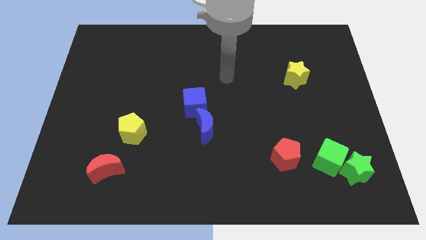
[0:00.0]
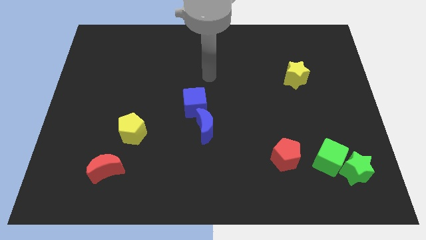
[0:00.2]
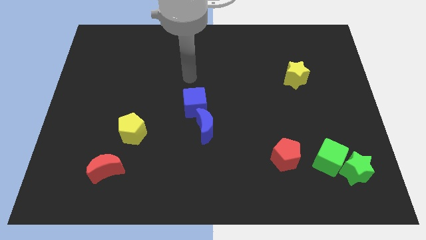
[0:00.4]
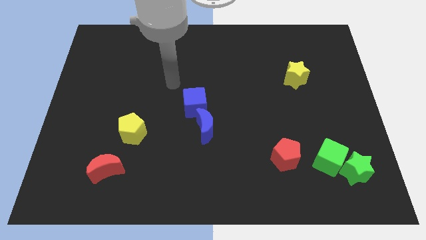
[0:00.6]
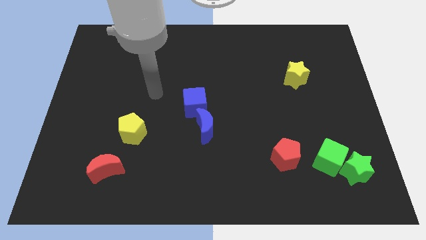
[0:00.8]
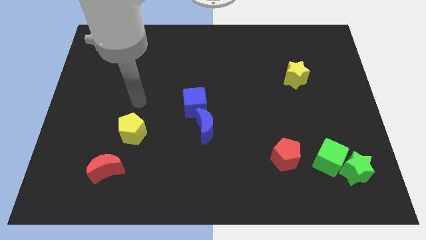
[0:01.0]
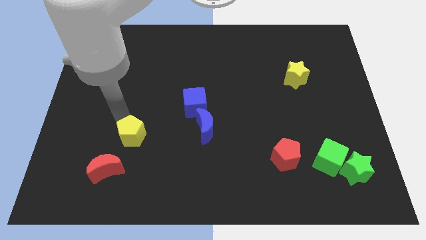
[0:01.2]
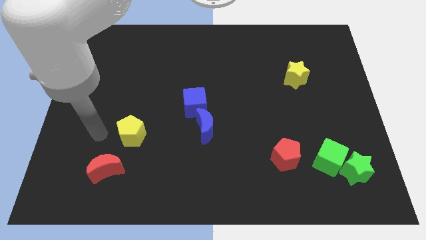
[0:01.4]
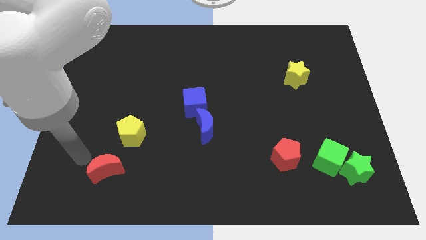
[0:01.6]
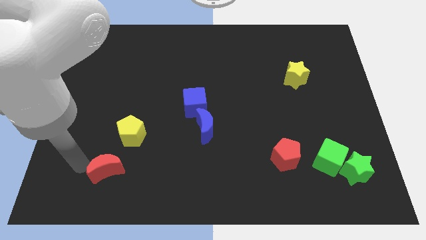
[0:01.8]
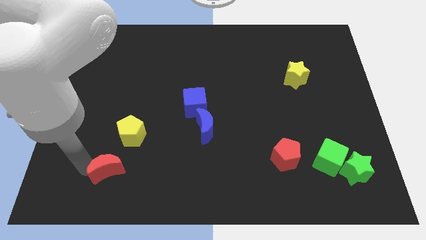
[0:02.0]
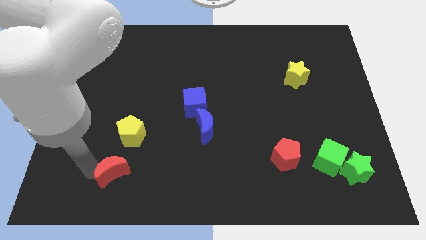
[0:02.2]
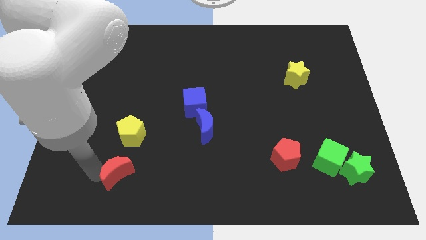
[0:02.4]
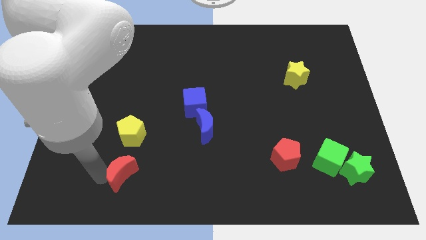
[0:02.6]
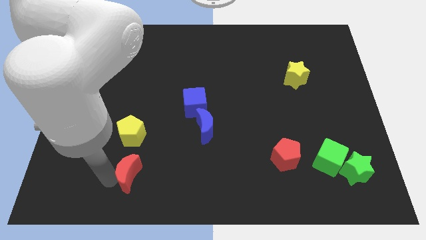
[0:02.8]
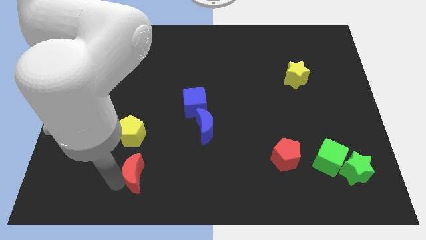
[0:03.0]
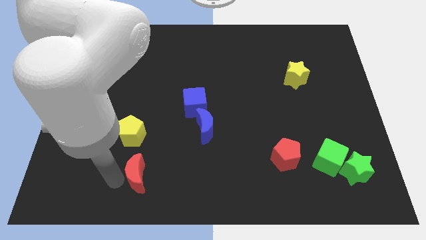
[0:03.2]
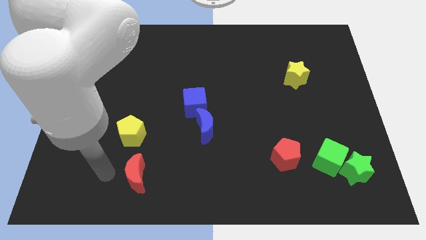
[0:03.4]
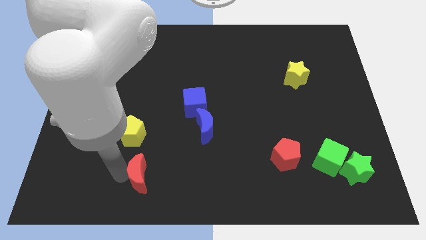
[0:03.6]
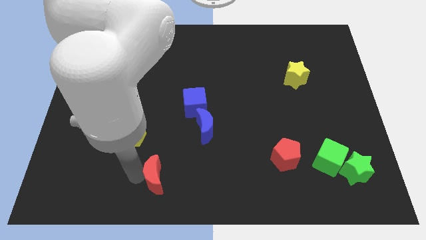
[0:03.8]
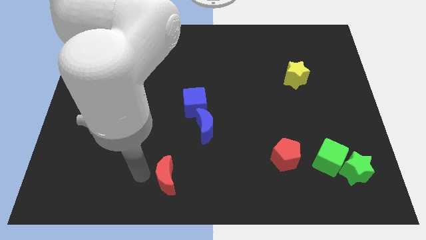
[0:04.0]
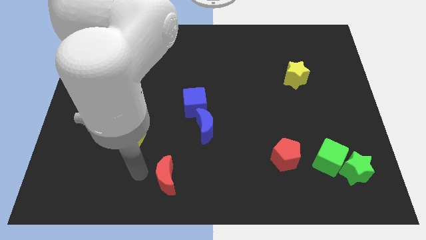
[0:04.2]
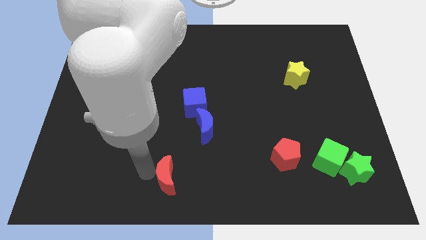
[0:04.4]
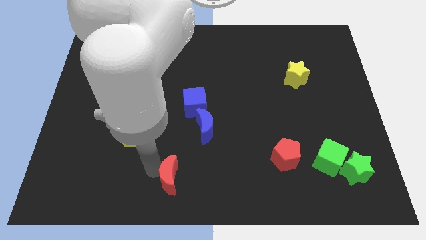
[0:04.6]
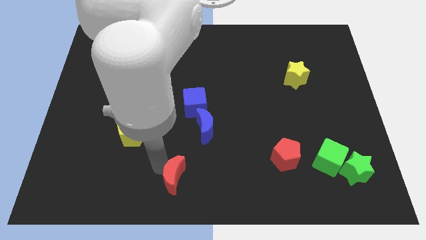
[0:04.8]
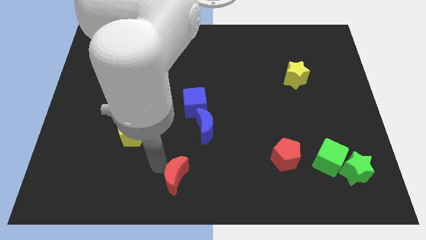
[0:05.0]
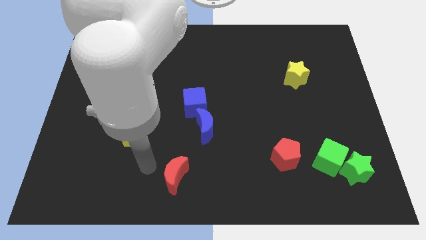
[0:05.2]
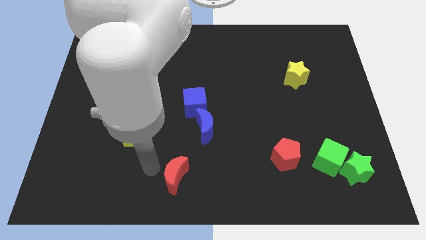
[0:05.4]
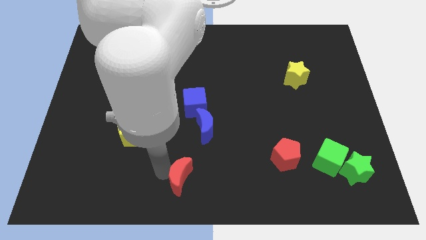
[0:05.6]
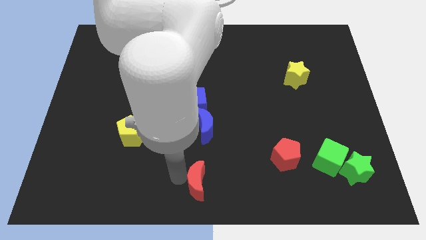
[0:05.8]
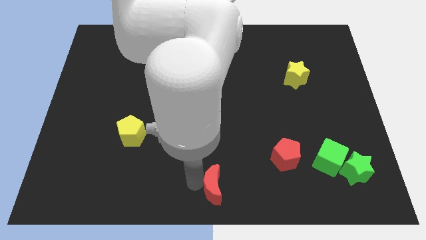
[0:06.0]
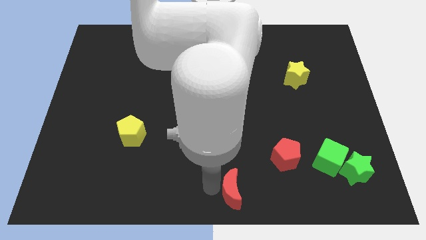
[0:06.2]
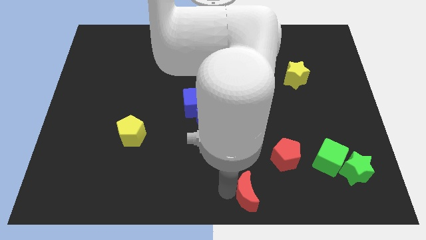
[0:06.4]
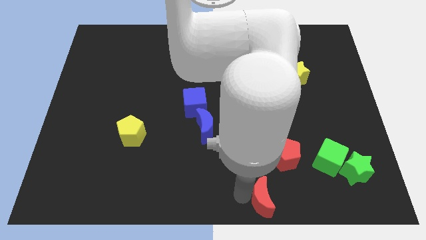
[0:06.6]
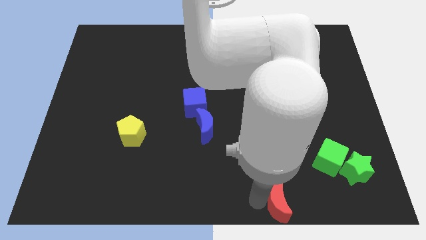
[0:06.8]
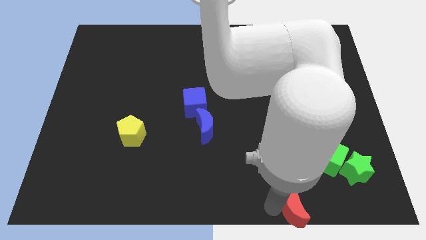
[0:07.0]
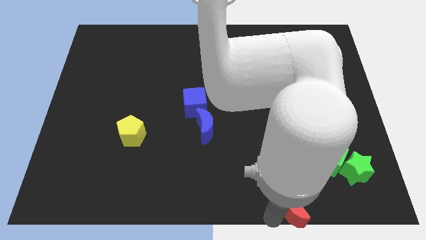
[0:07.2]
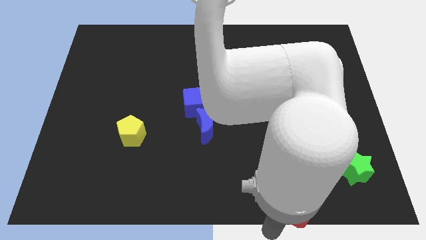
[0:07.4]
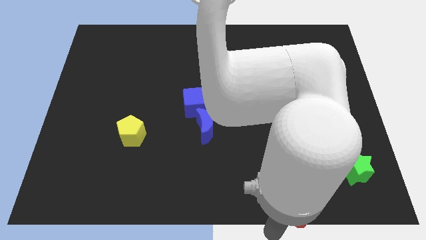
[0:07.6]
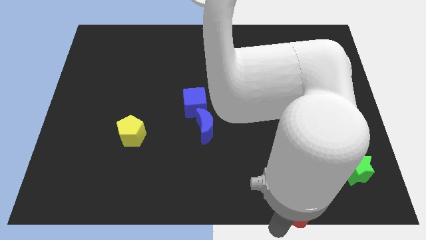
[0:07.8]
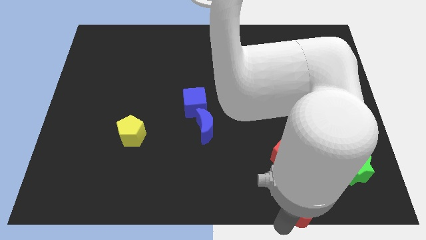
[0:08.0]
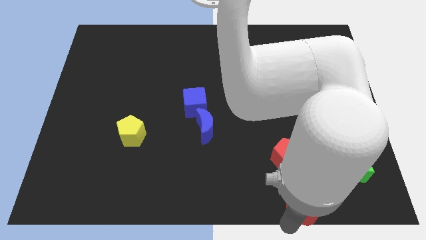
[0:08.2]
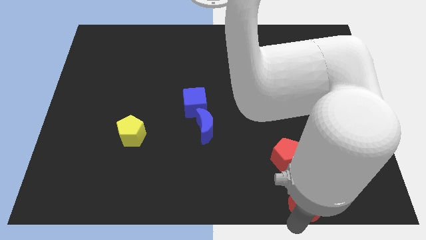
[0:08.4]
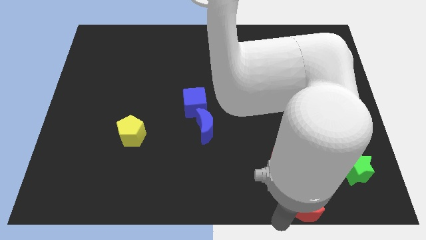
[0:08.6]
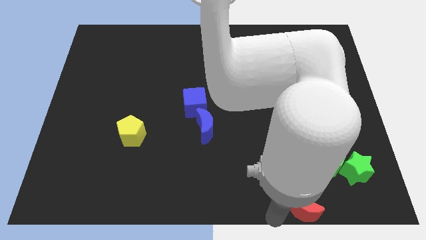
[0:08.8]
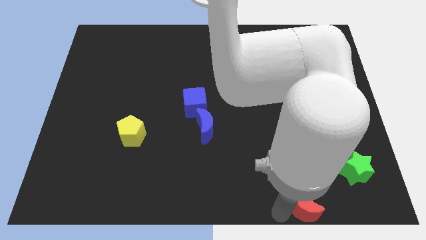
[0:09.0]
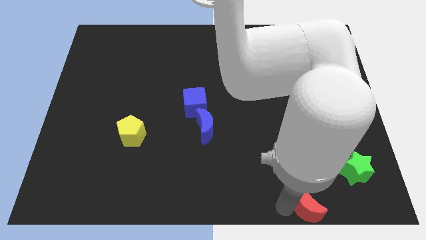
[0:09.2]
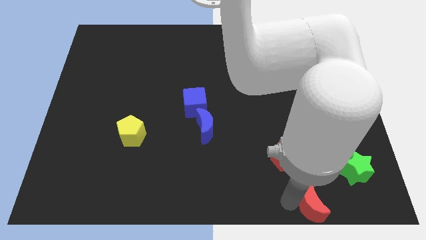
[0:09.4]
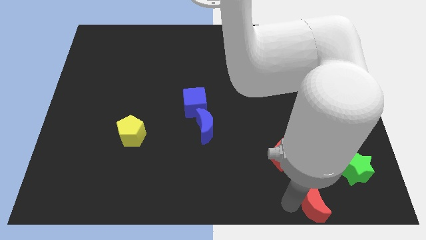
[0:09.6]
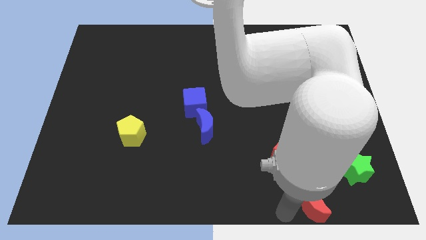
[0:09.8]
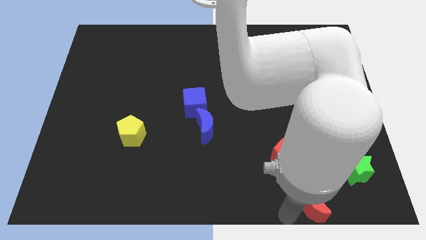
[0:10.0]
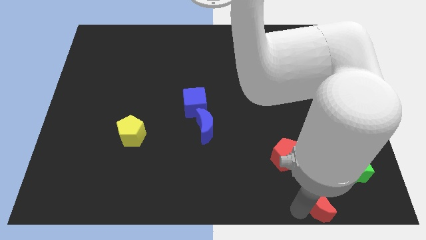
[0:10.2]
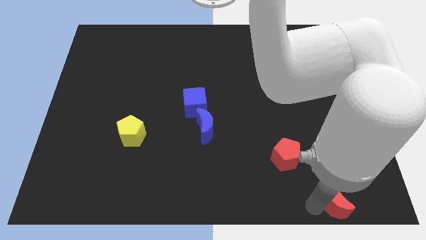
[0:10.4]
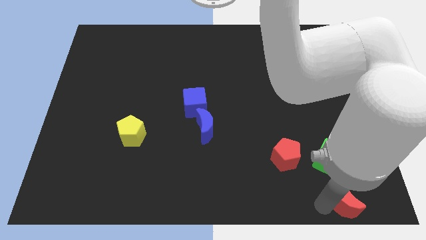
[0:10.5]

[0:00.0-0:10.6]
put the red moon to the bottom right

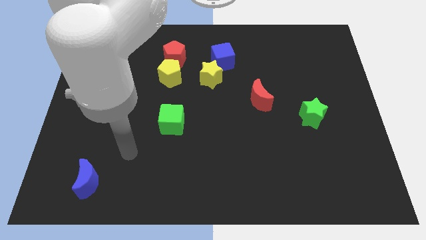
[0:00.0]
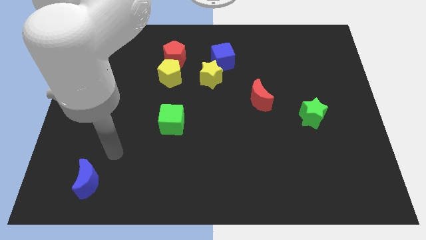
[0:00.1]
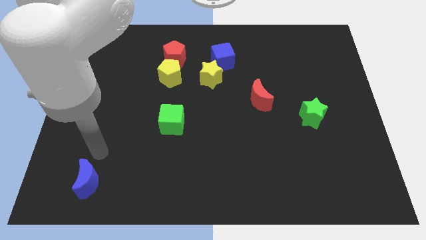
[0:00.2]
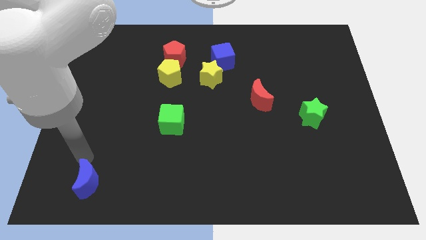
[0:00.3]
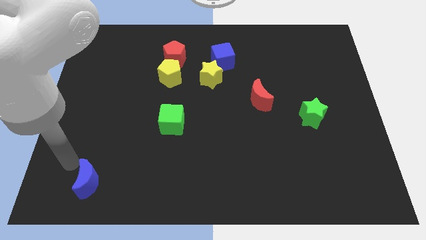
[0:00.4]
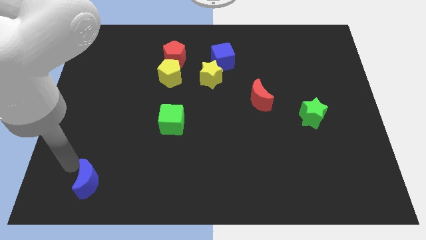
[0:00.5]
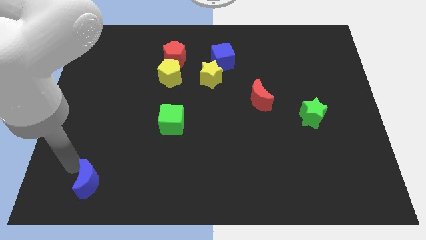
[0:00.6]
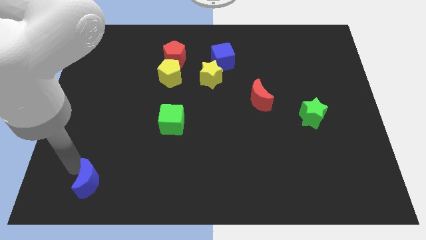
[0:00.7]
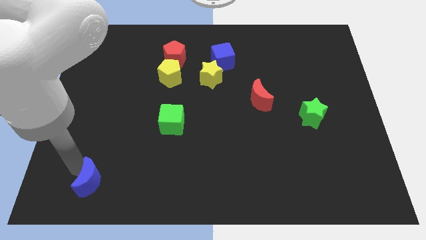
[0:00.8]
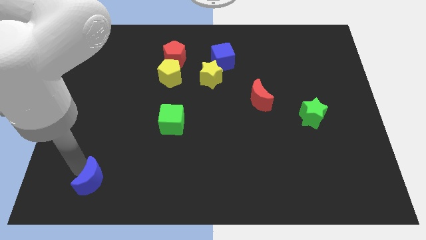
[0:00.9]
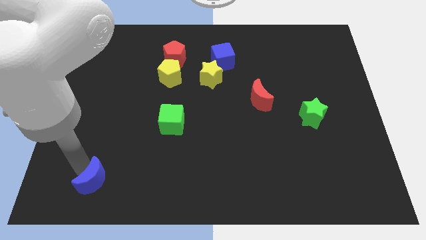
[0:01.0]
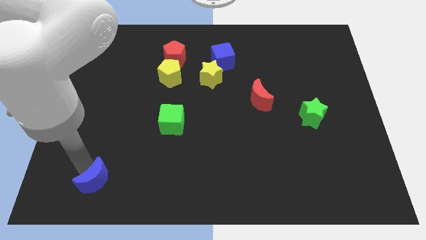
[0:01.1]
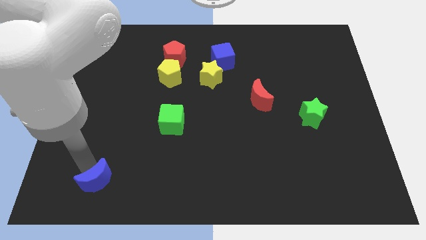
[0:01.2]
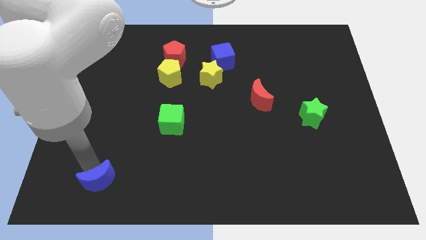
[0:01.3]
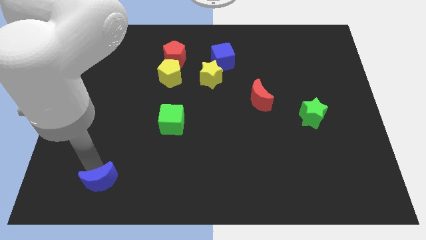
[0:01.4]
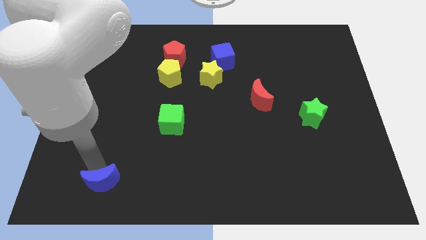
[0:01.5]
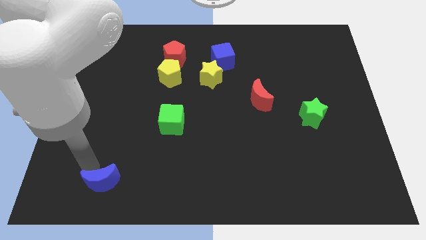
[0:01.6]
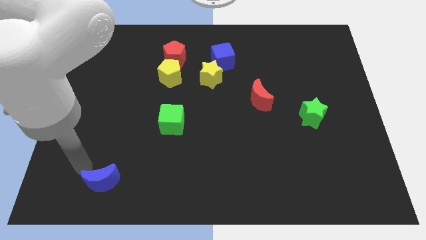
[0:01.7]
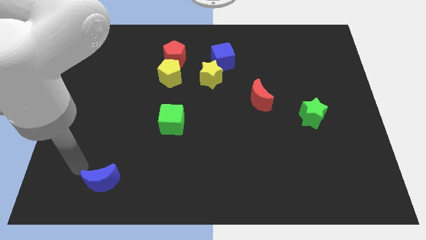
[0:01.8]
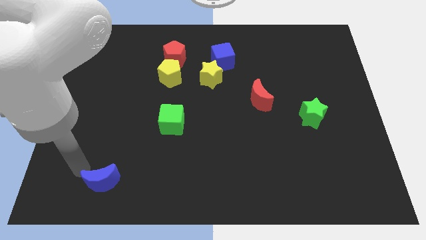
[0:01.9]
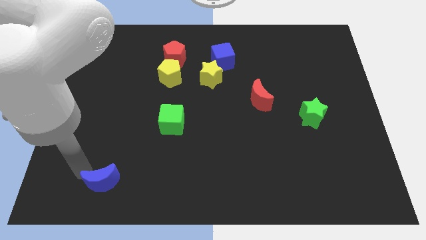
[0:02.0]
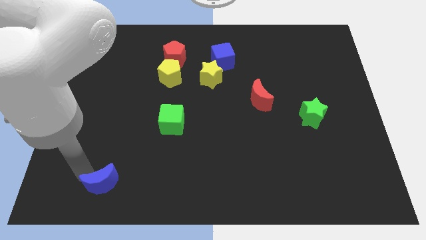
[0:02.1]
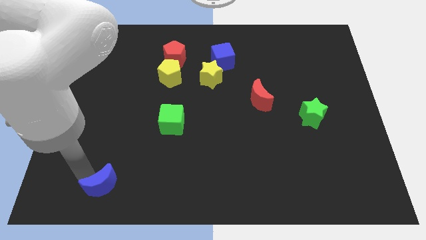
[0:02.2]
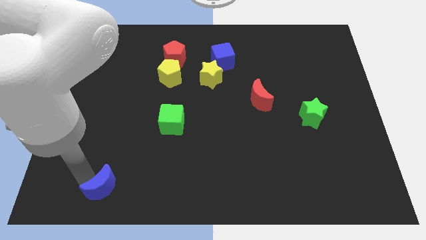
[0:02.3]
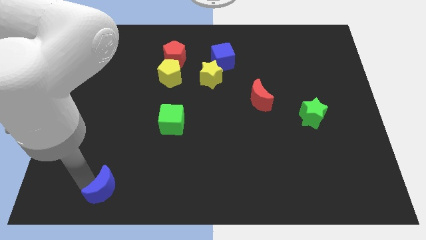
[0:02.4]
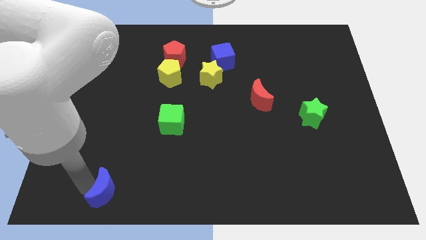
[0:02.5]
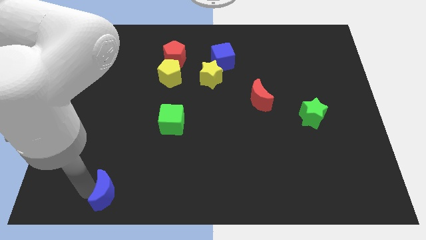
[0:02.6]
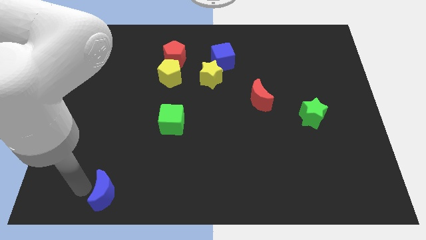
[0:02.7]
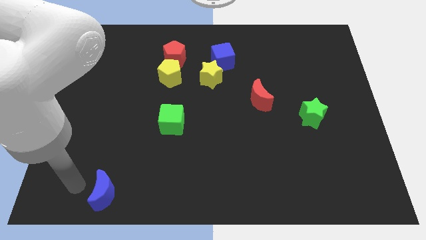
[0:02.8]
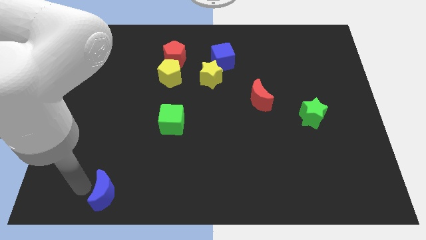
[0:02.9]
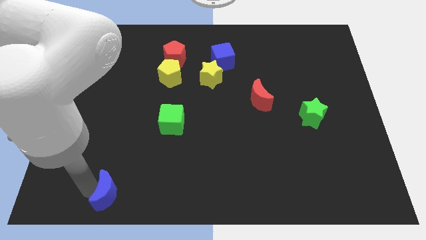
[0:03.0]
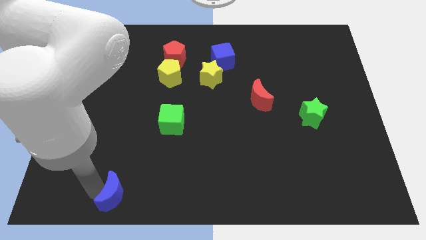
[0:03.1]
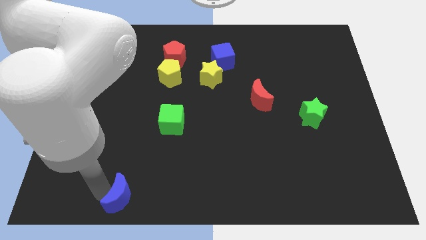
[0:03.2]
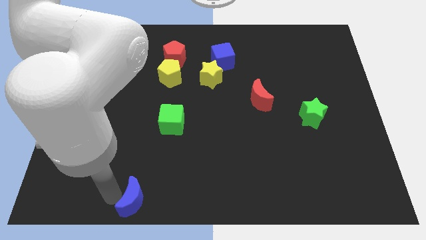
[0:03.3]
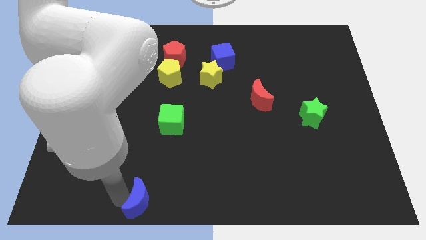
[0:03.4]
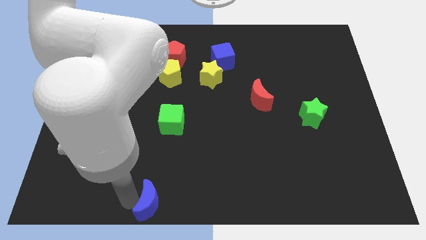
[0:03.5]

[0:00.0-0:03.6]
slide the blue moon to the bottom
